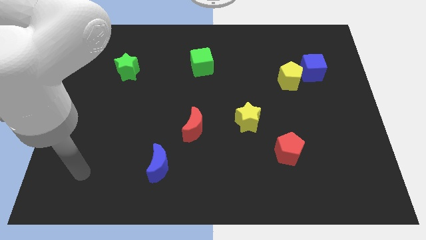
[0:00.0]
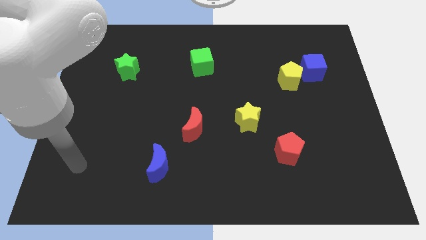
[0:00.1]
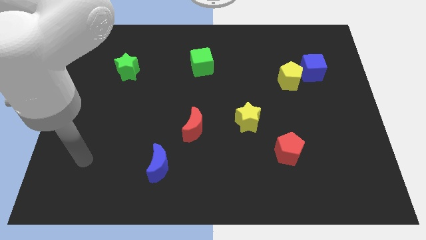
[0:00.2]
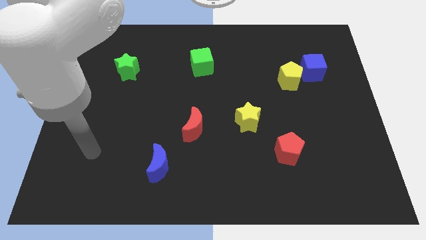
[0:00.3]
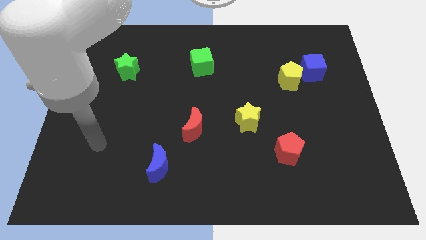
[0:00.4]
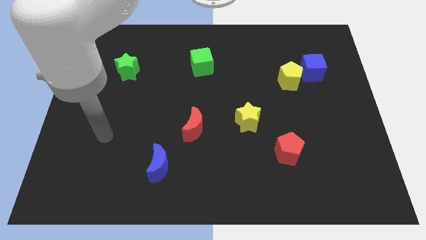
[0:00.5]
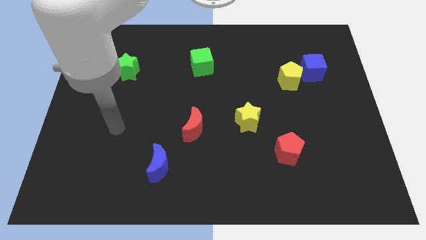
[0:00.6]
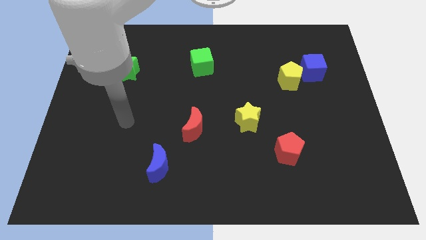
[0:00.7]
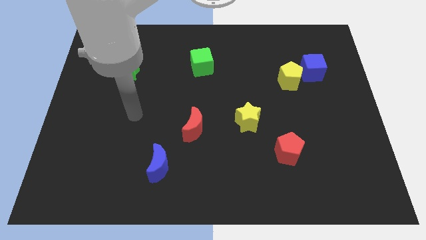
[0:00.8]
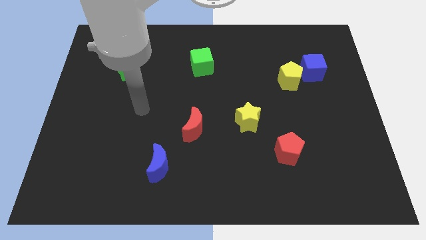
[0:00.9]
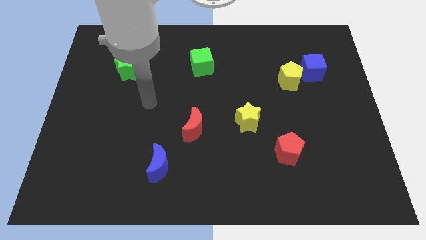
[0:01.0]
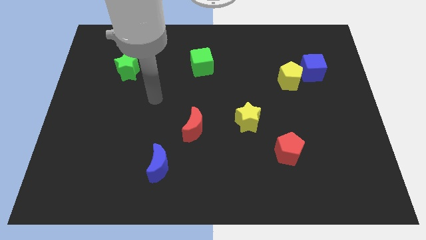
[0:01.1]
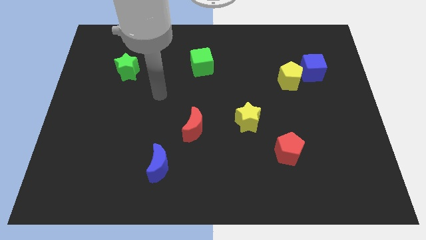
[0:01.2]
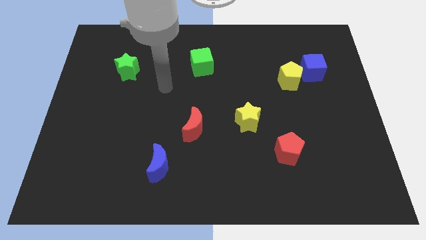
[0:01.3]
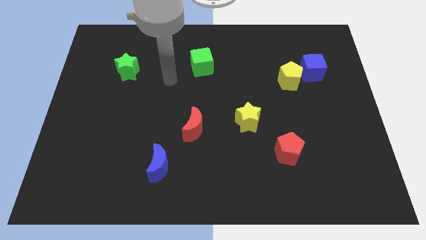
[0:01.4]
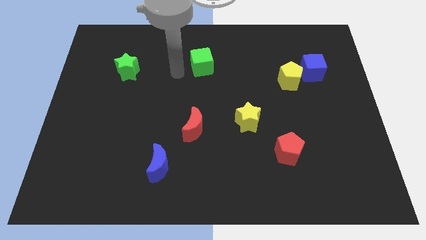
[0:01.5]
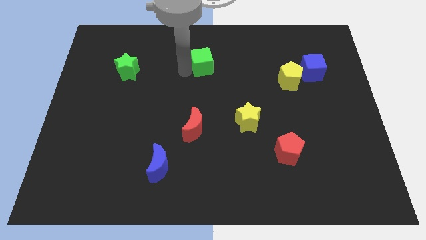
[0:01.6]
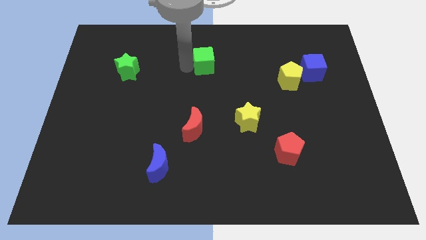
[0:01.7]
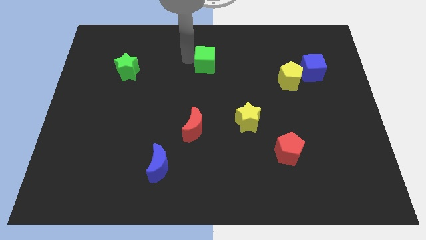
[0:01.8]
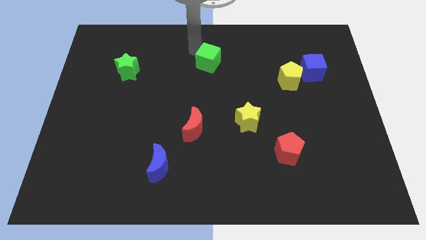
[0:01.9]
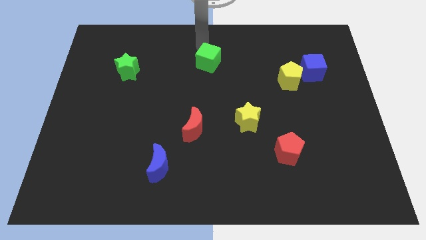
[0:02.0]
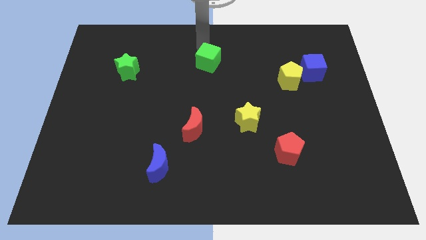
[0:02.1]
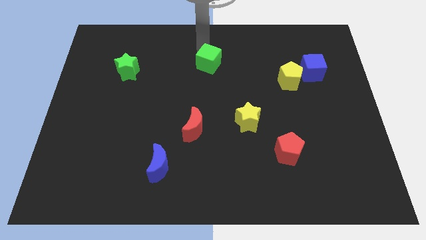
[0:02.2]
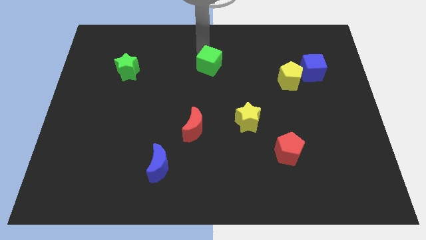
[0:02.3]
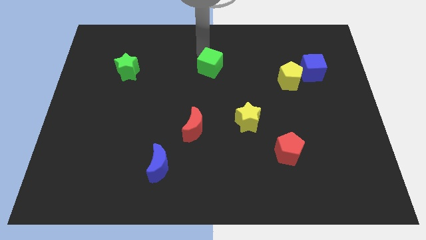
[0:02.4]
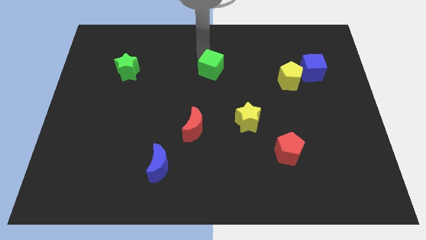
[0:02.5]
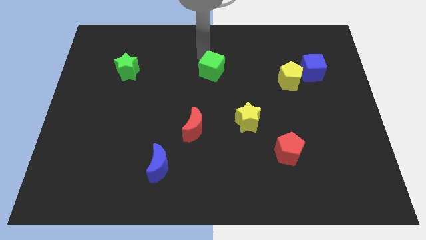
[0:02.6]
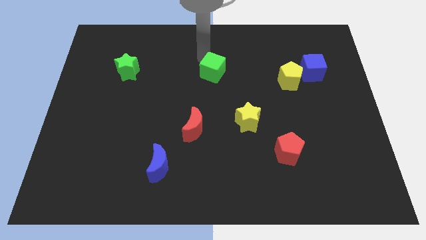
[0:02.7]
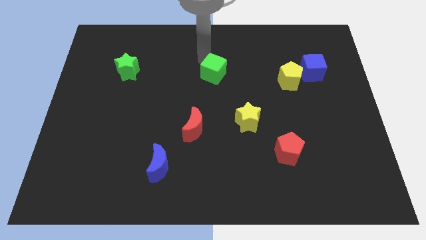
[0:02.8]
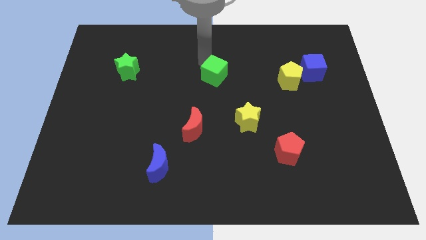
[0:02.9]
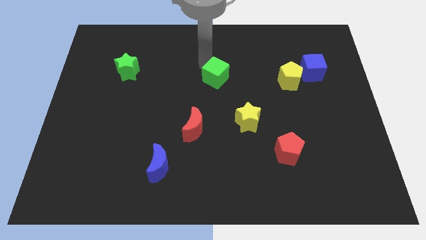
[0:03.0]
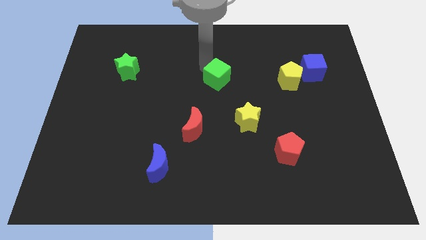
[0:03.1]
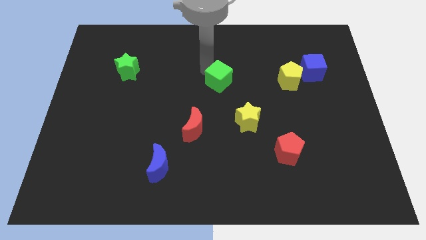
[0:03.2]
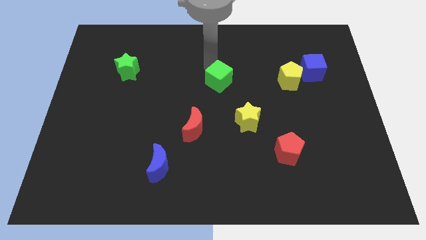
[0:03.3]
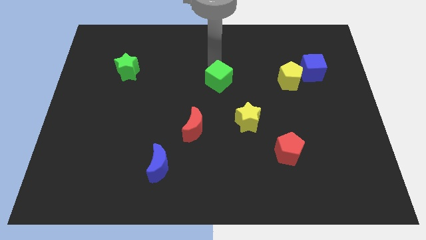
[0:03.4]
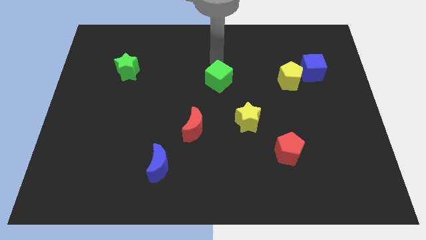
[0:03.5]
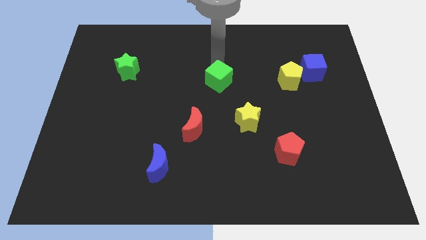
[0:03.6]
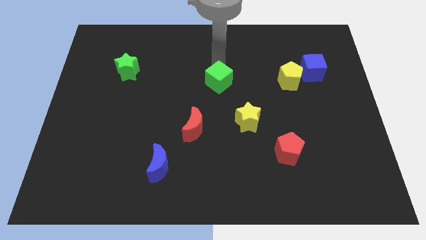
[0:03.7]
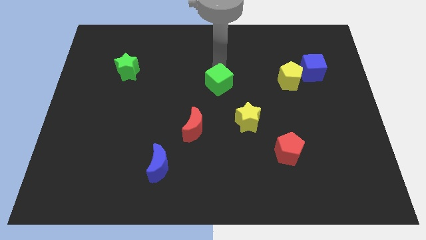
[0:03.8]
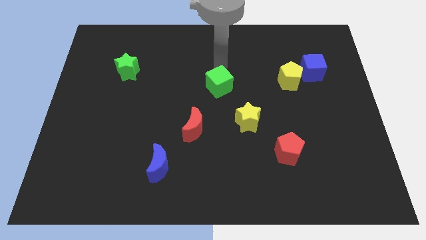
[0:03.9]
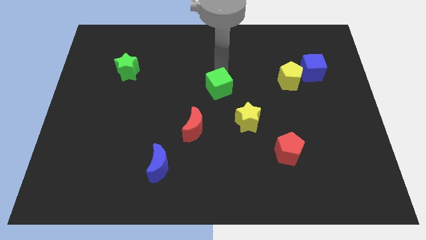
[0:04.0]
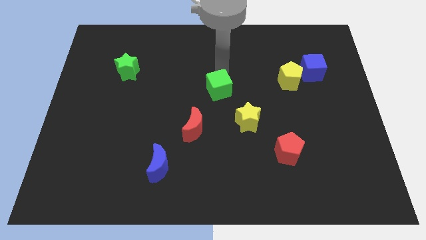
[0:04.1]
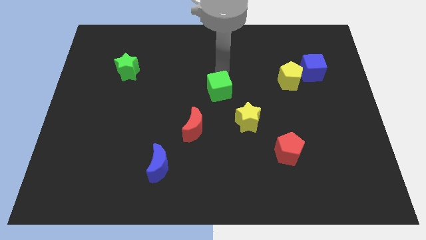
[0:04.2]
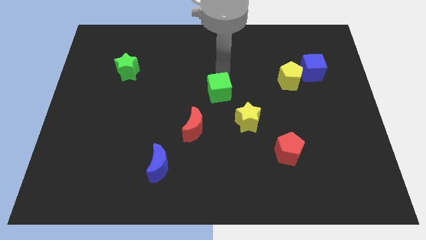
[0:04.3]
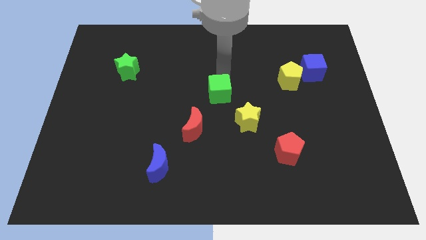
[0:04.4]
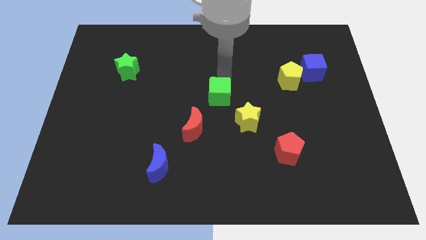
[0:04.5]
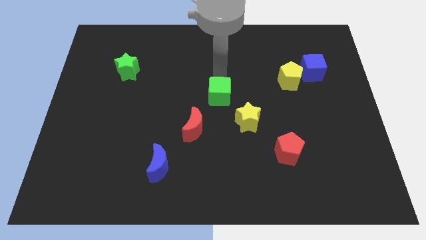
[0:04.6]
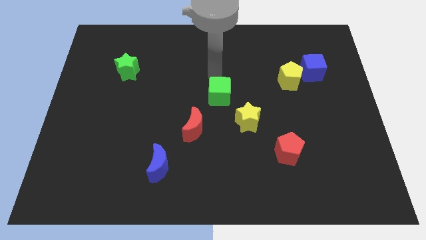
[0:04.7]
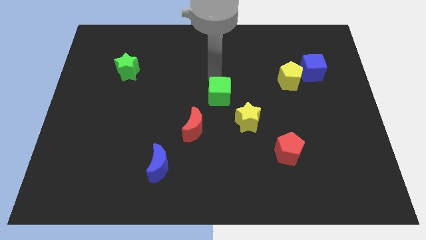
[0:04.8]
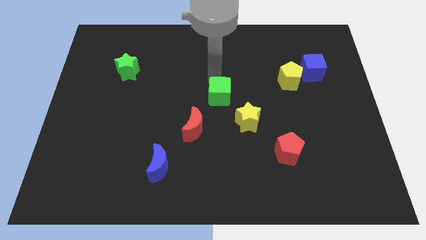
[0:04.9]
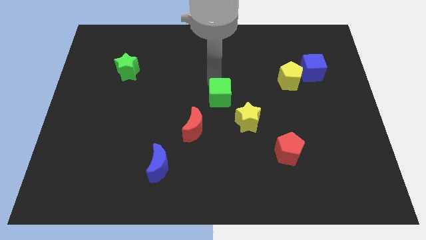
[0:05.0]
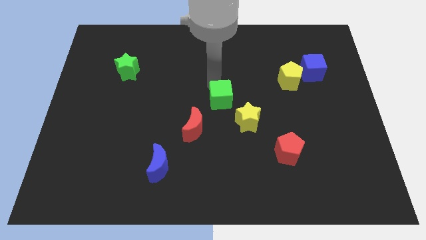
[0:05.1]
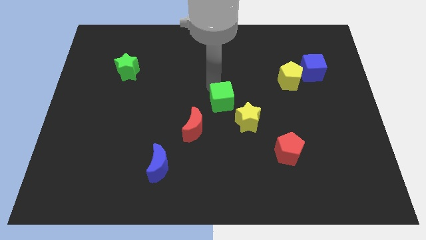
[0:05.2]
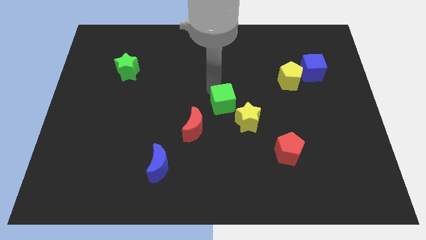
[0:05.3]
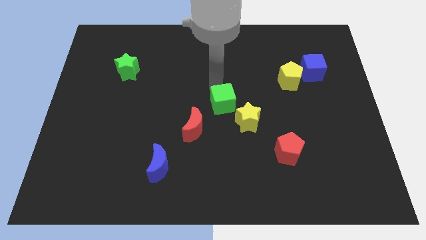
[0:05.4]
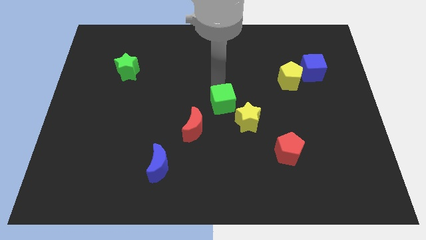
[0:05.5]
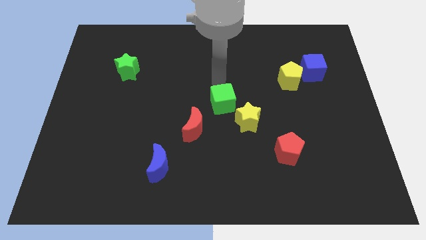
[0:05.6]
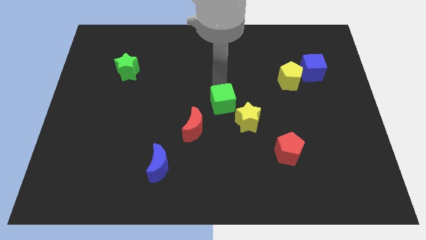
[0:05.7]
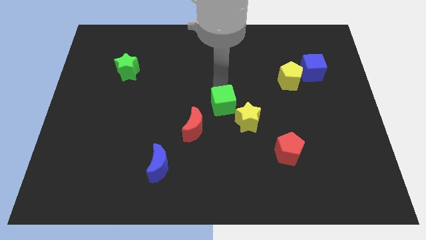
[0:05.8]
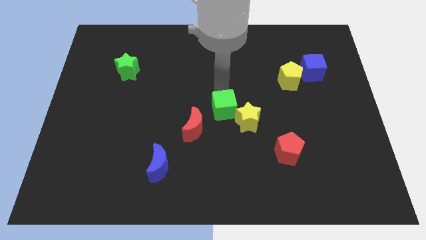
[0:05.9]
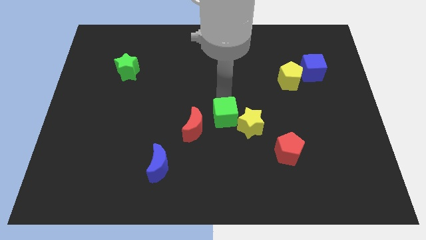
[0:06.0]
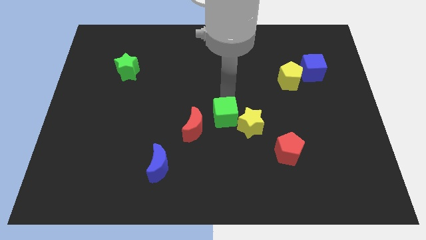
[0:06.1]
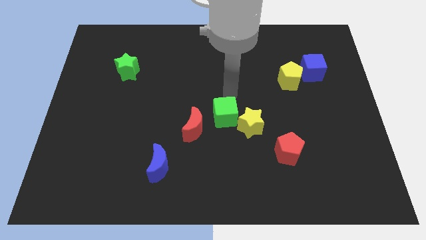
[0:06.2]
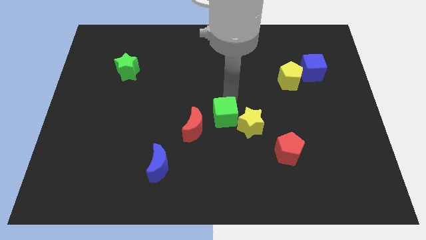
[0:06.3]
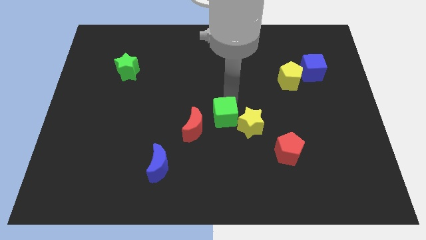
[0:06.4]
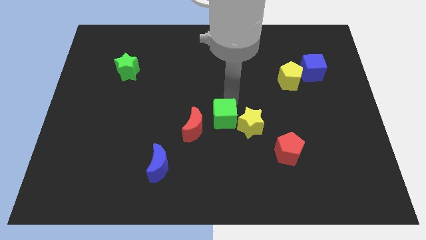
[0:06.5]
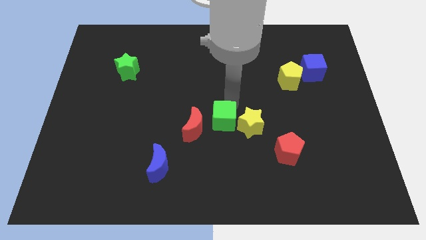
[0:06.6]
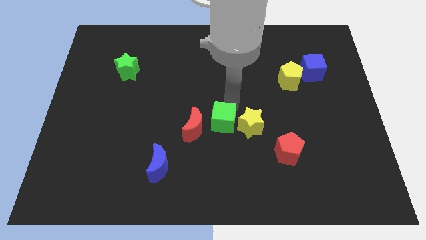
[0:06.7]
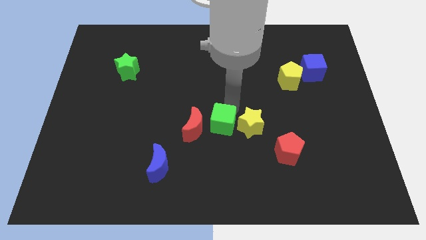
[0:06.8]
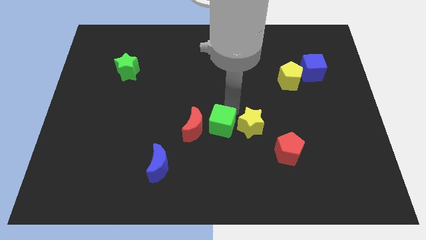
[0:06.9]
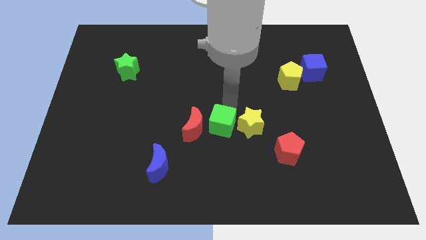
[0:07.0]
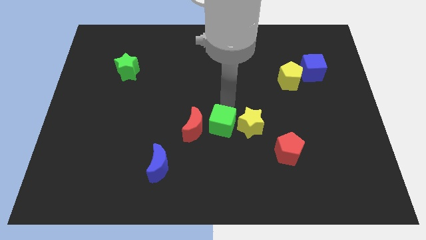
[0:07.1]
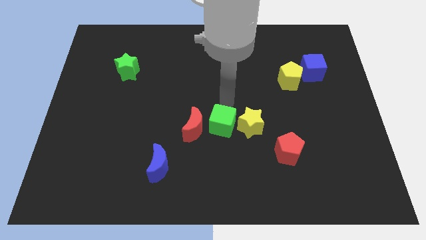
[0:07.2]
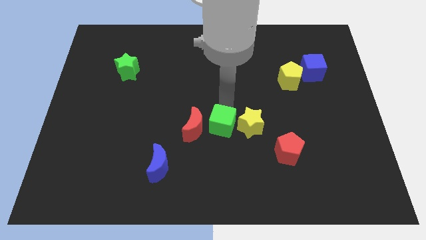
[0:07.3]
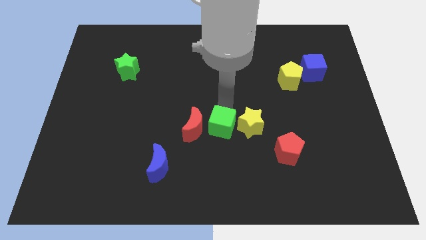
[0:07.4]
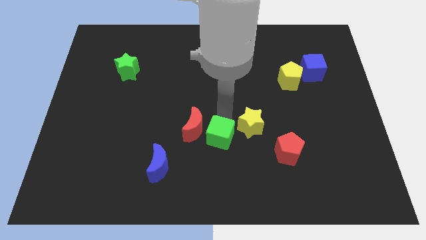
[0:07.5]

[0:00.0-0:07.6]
push the green cube down

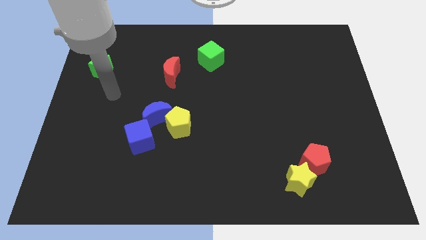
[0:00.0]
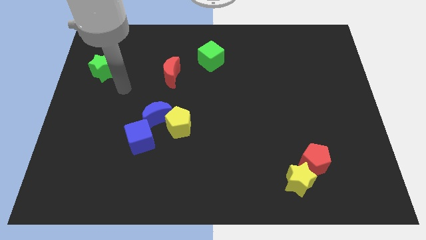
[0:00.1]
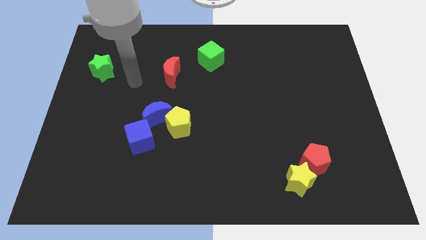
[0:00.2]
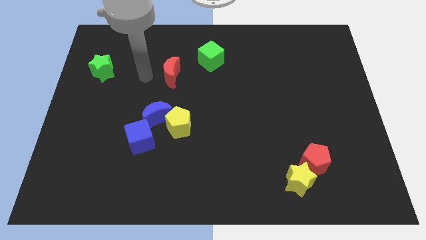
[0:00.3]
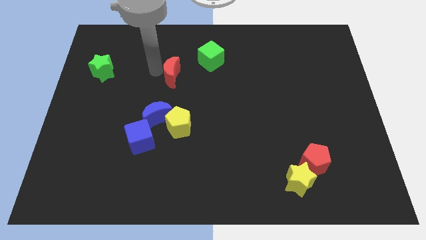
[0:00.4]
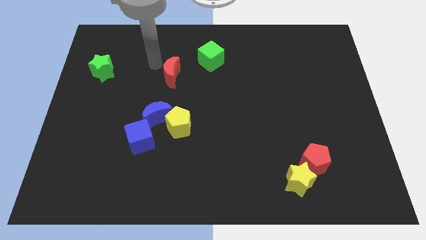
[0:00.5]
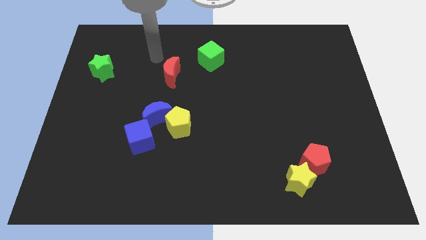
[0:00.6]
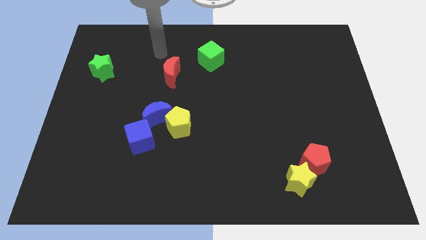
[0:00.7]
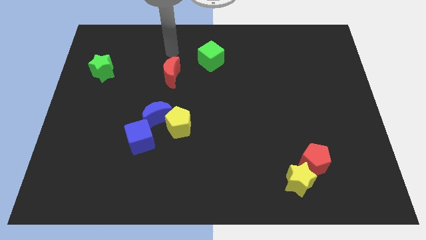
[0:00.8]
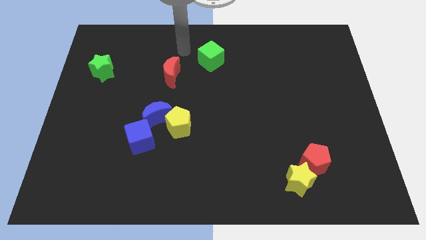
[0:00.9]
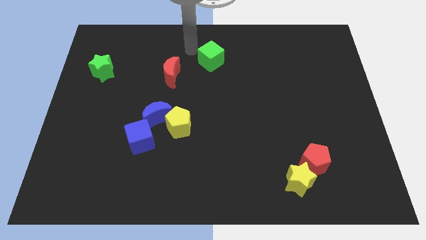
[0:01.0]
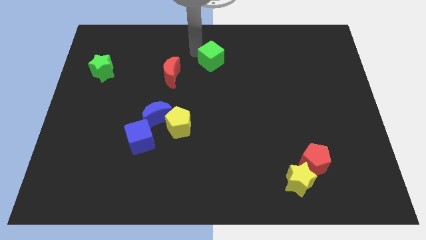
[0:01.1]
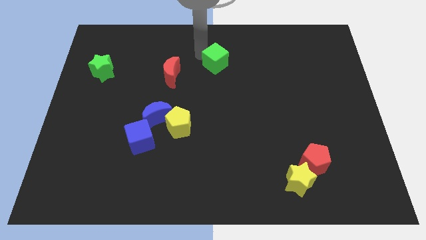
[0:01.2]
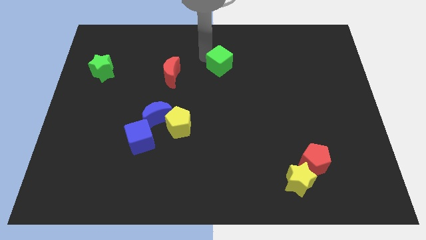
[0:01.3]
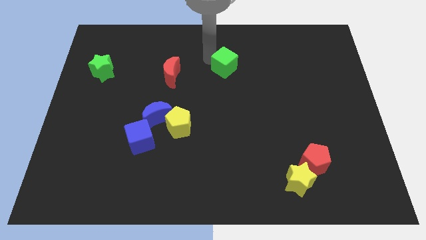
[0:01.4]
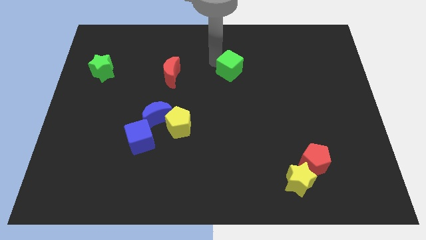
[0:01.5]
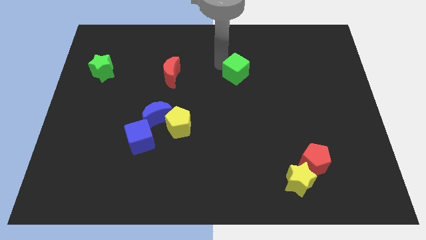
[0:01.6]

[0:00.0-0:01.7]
slide the green cube slightly down and right
